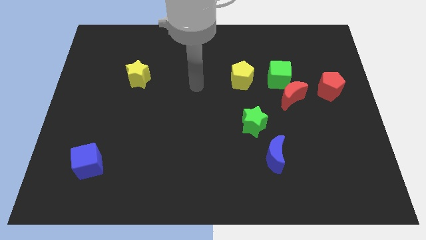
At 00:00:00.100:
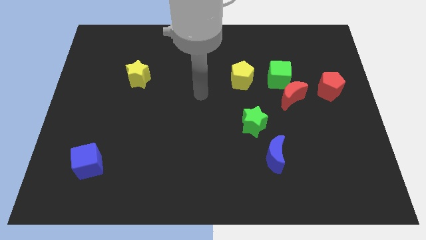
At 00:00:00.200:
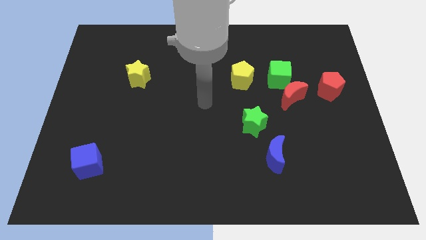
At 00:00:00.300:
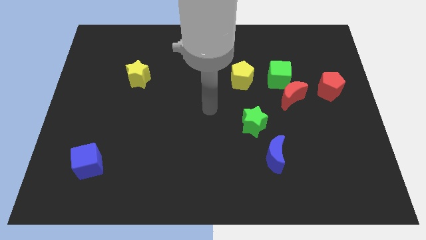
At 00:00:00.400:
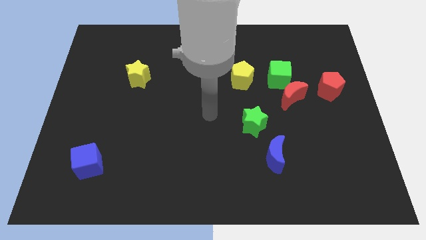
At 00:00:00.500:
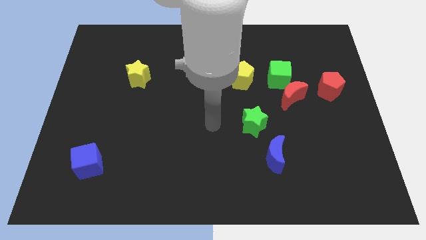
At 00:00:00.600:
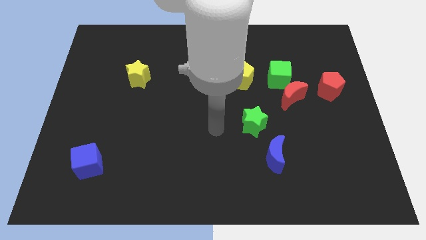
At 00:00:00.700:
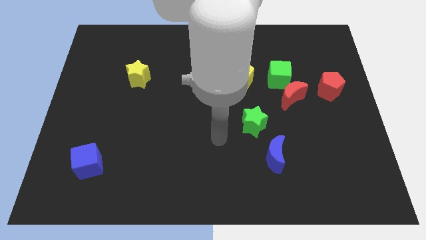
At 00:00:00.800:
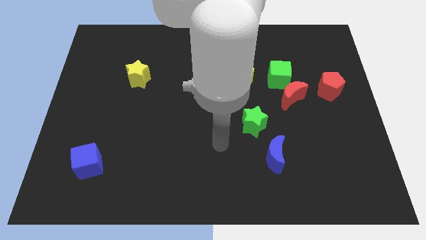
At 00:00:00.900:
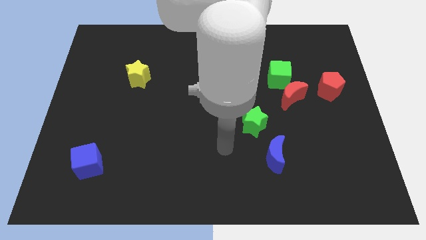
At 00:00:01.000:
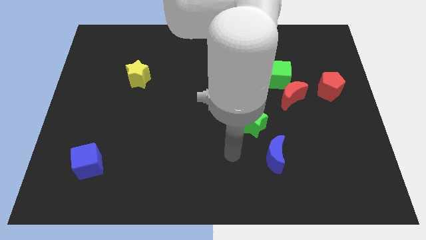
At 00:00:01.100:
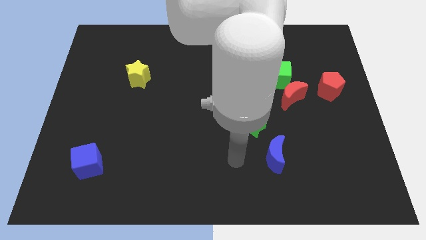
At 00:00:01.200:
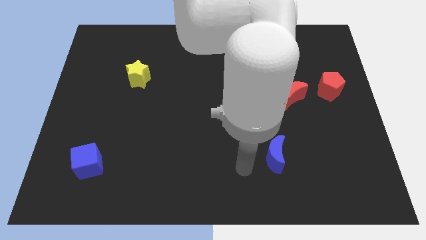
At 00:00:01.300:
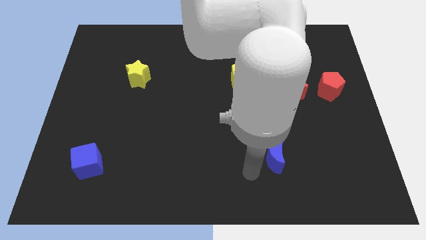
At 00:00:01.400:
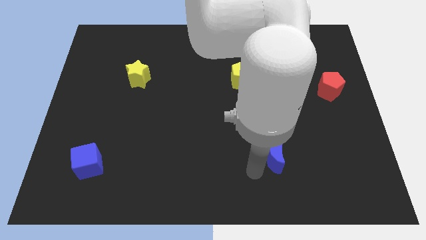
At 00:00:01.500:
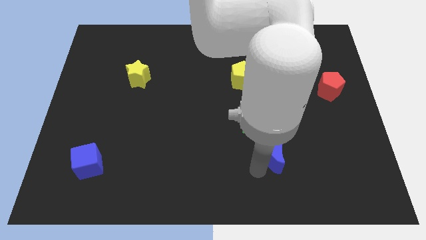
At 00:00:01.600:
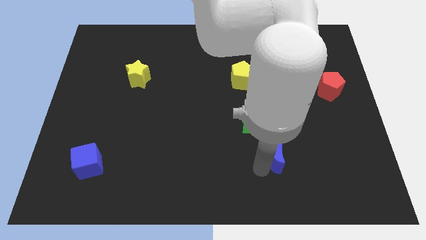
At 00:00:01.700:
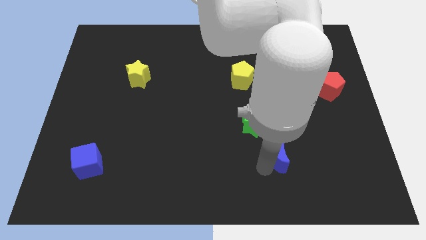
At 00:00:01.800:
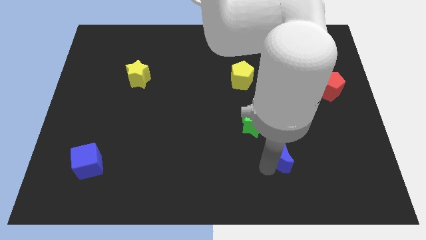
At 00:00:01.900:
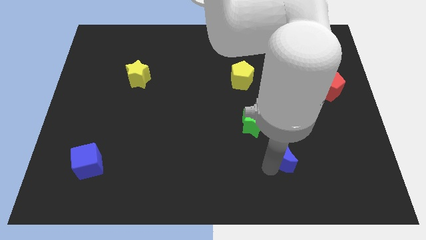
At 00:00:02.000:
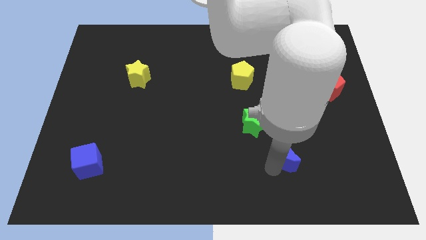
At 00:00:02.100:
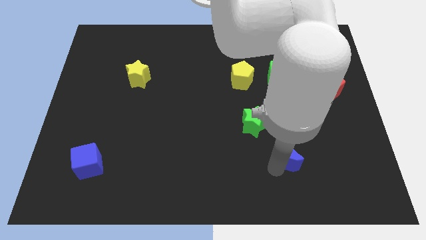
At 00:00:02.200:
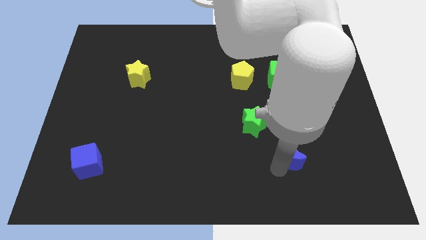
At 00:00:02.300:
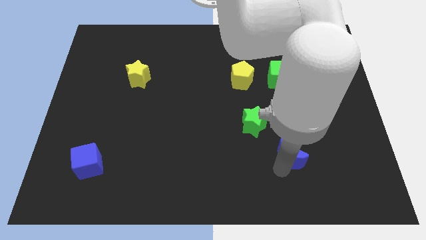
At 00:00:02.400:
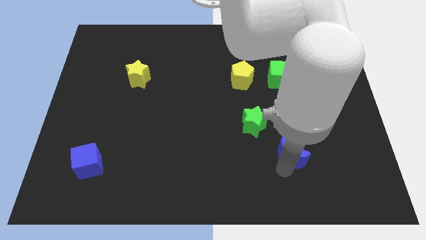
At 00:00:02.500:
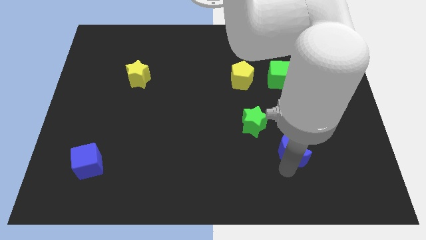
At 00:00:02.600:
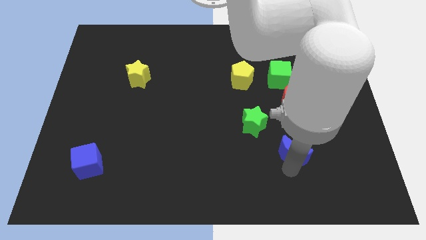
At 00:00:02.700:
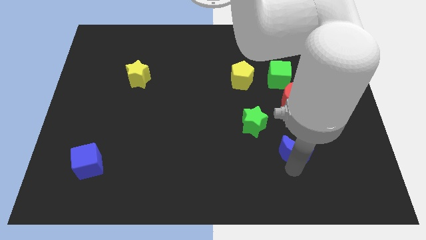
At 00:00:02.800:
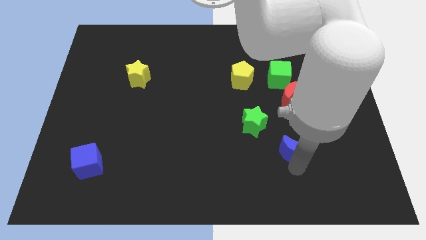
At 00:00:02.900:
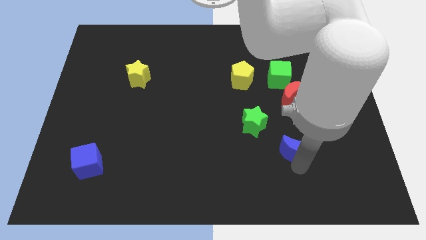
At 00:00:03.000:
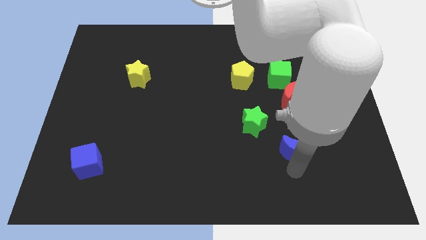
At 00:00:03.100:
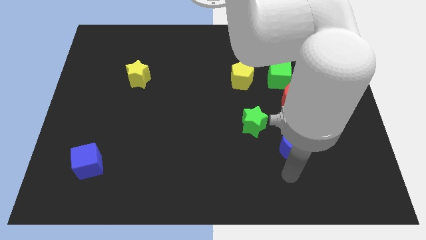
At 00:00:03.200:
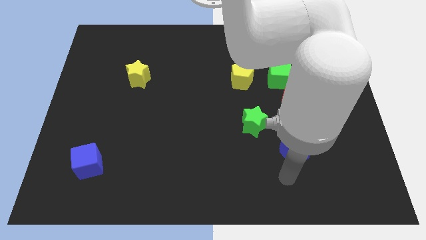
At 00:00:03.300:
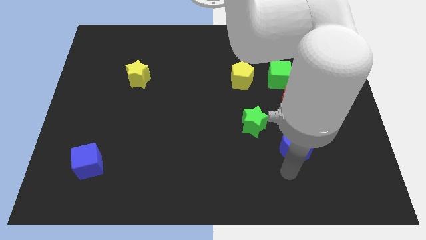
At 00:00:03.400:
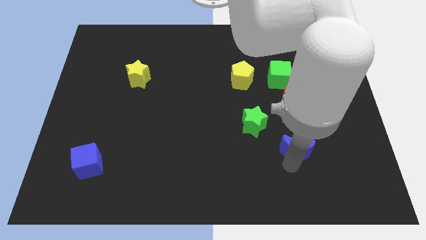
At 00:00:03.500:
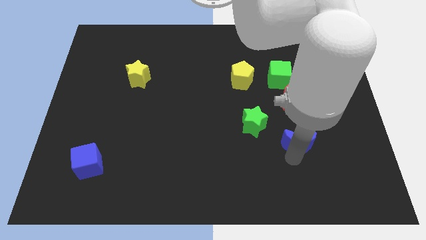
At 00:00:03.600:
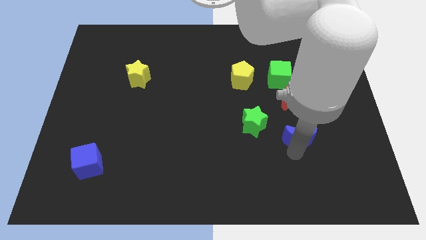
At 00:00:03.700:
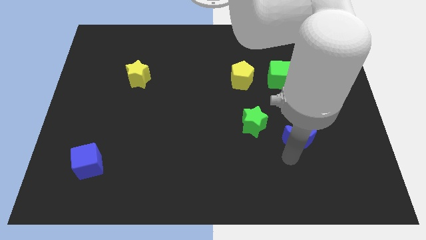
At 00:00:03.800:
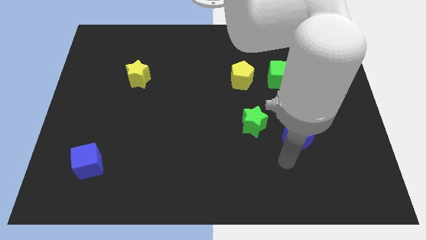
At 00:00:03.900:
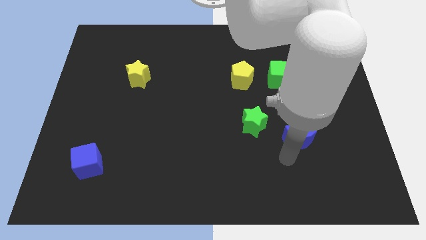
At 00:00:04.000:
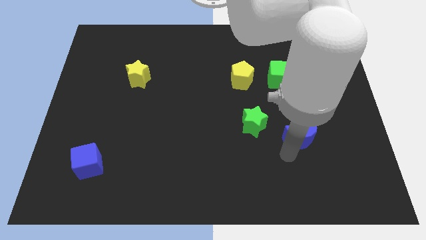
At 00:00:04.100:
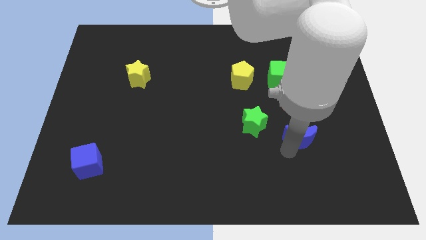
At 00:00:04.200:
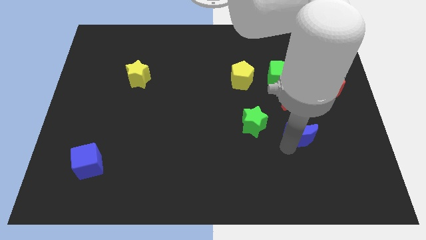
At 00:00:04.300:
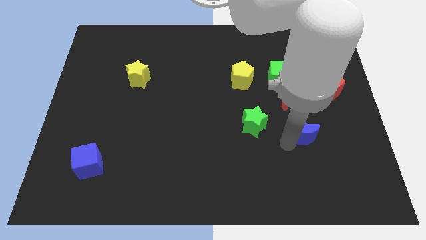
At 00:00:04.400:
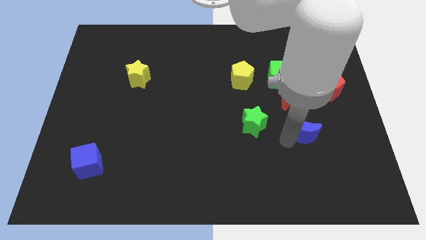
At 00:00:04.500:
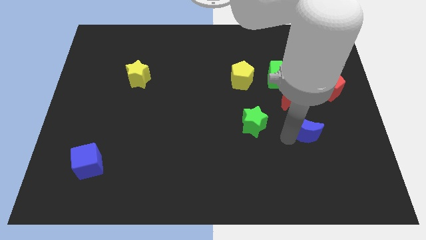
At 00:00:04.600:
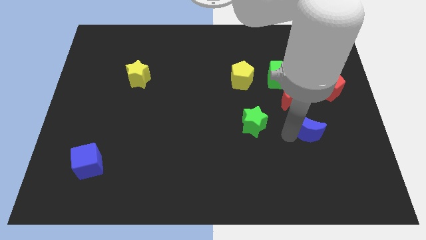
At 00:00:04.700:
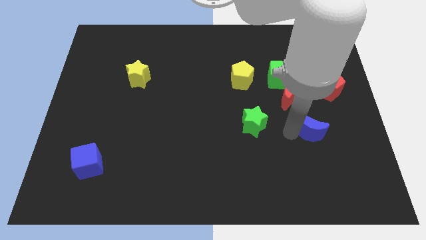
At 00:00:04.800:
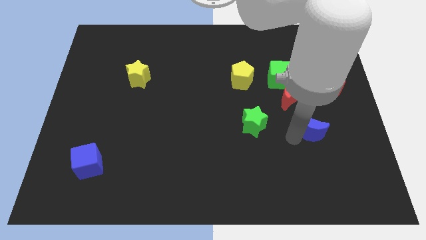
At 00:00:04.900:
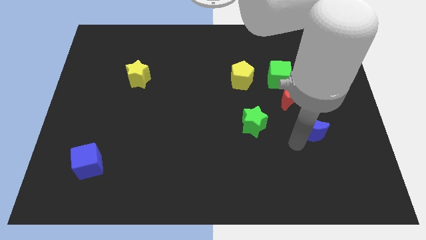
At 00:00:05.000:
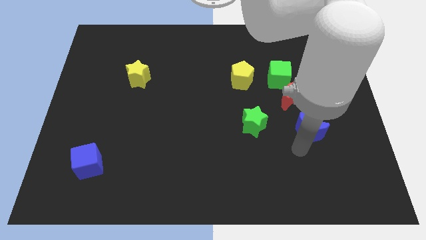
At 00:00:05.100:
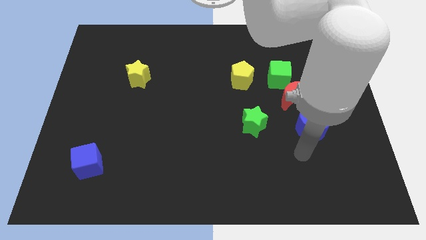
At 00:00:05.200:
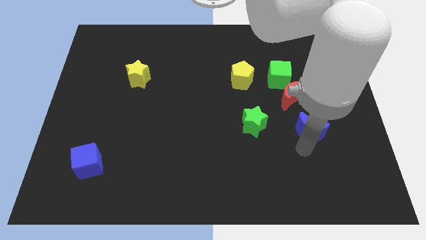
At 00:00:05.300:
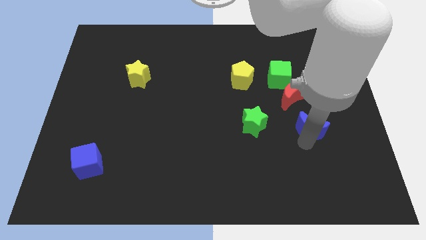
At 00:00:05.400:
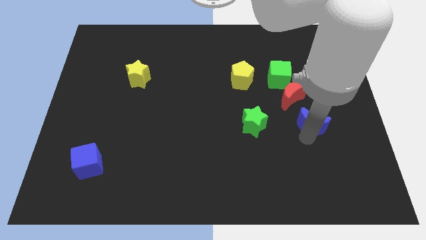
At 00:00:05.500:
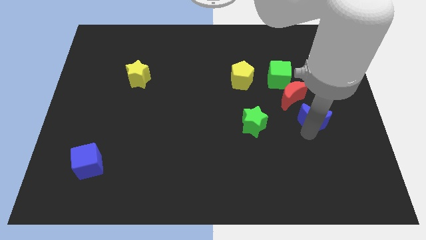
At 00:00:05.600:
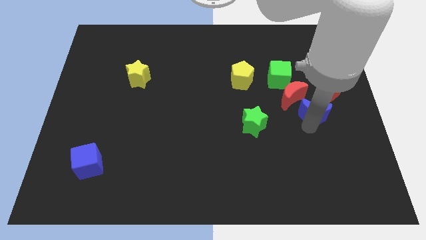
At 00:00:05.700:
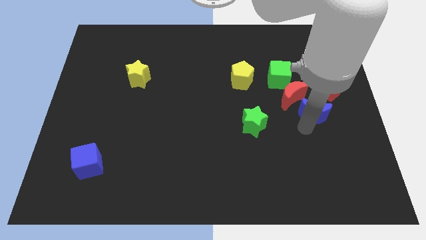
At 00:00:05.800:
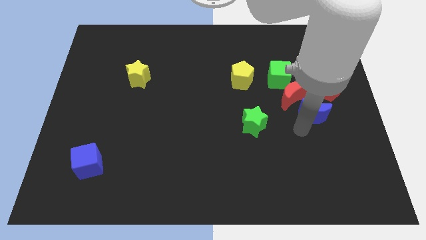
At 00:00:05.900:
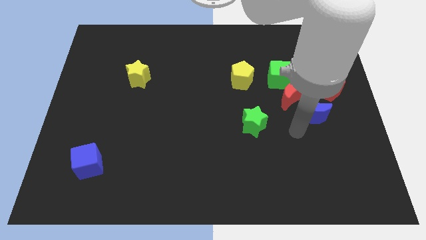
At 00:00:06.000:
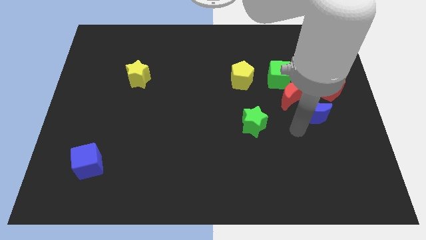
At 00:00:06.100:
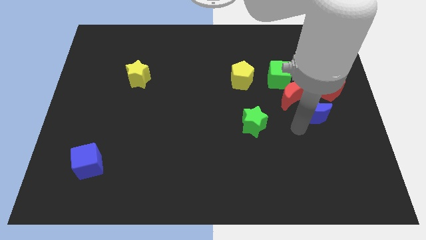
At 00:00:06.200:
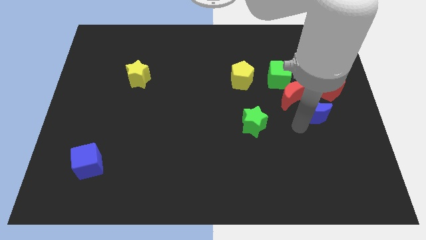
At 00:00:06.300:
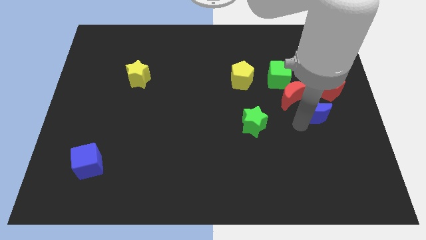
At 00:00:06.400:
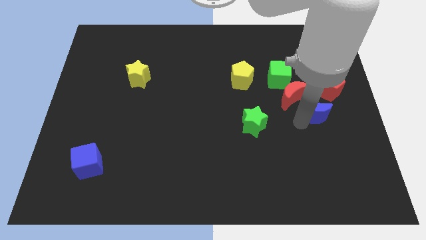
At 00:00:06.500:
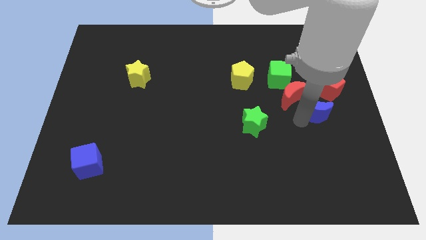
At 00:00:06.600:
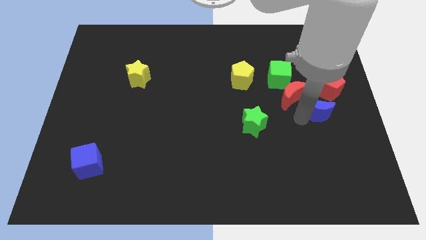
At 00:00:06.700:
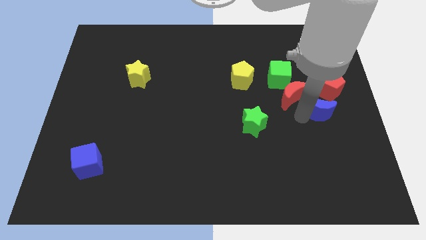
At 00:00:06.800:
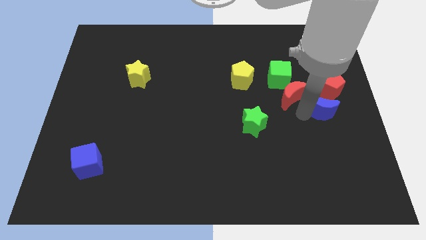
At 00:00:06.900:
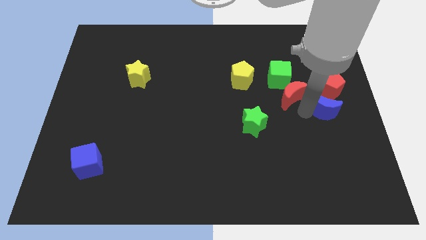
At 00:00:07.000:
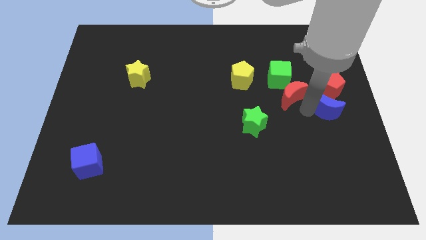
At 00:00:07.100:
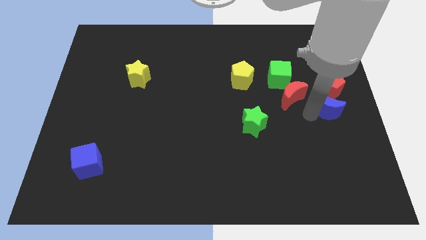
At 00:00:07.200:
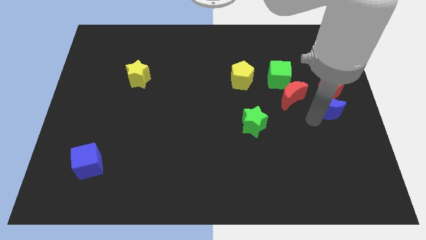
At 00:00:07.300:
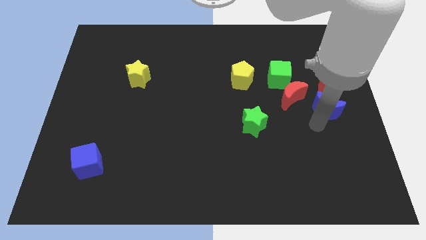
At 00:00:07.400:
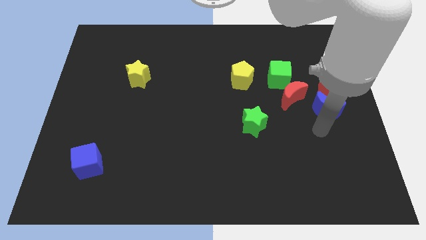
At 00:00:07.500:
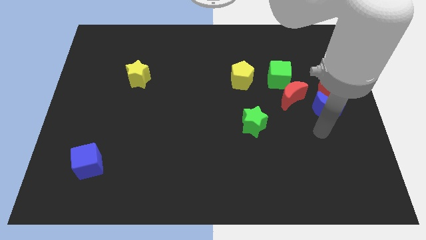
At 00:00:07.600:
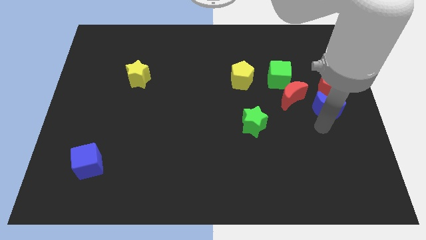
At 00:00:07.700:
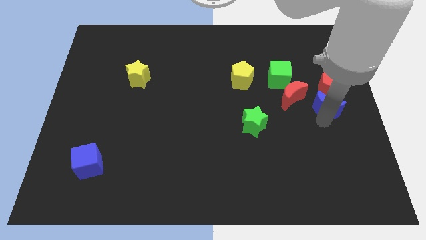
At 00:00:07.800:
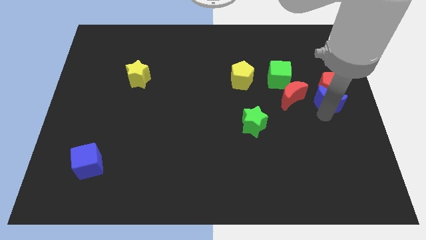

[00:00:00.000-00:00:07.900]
slide the blue moon next to the red pentagon
